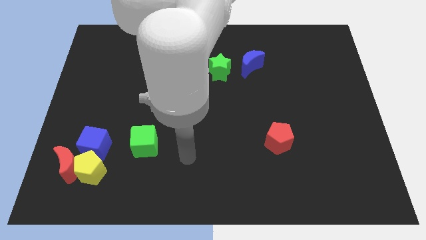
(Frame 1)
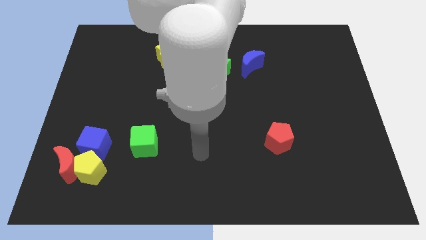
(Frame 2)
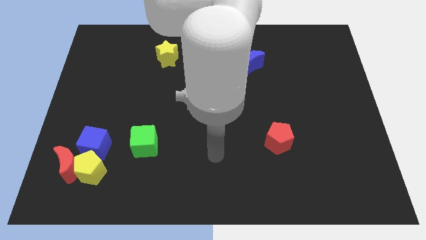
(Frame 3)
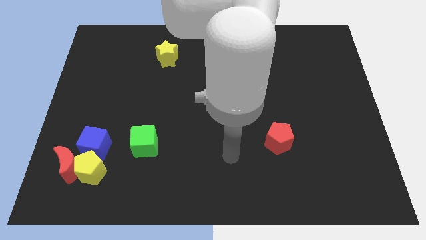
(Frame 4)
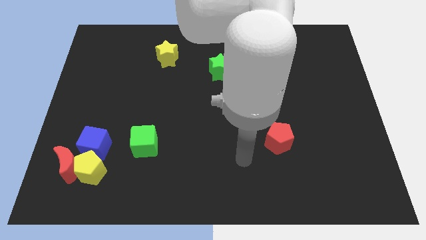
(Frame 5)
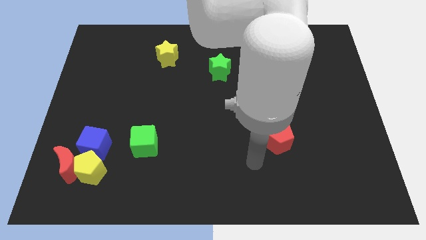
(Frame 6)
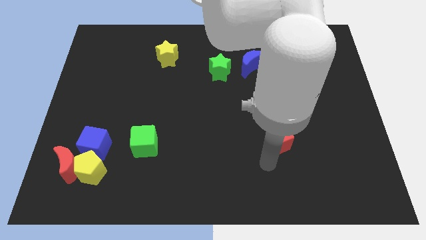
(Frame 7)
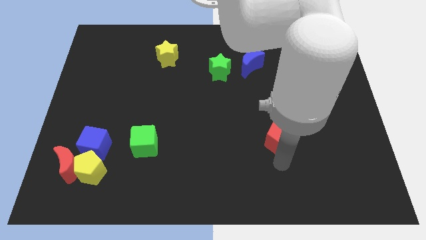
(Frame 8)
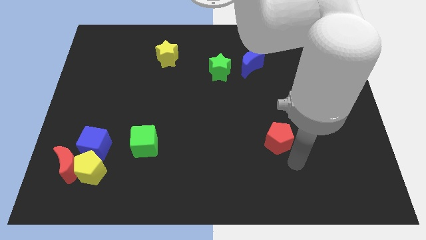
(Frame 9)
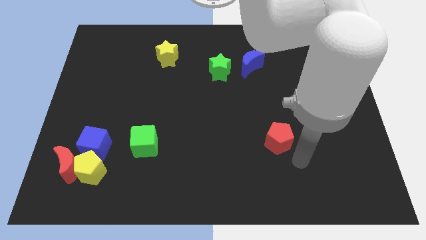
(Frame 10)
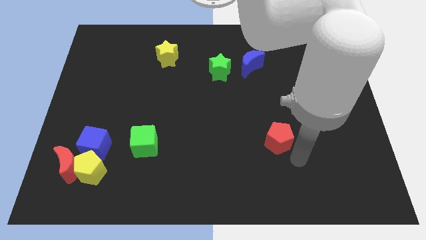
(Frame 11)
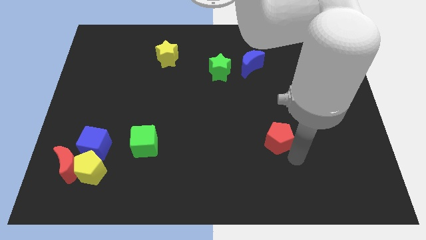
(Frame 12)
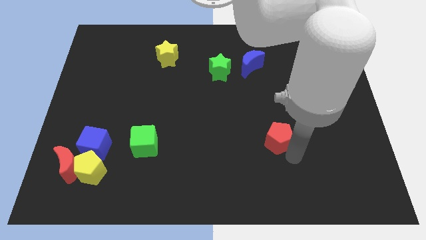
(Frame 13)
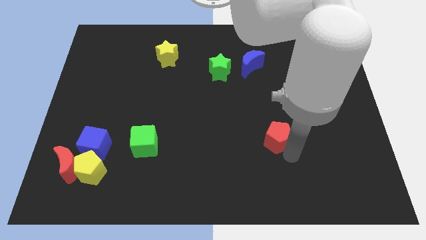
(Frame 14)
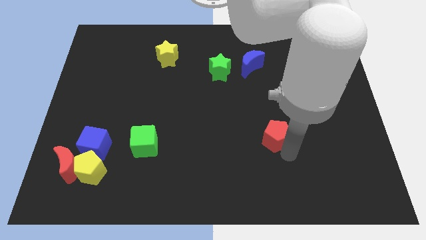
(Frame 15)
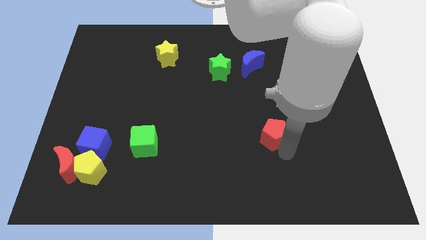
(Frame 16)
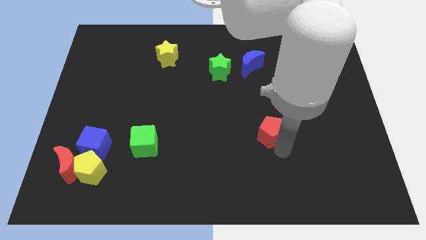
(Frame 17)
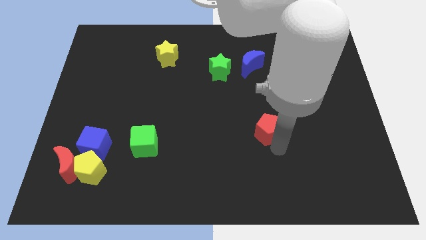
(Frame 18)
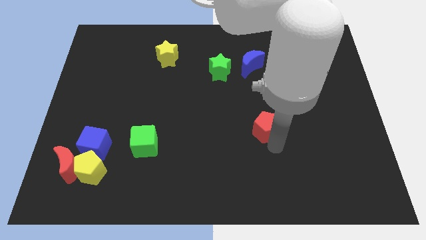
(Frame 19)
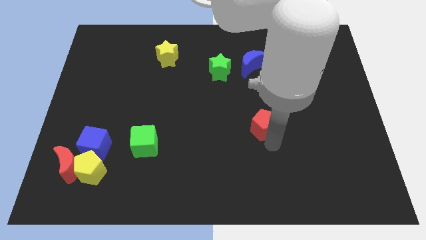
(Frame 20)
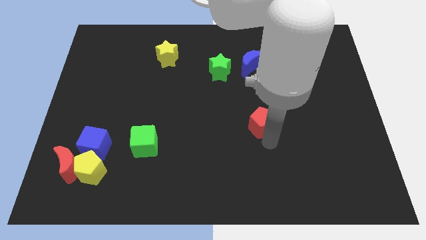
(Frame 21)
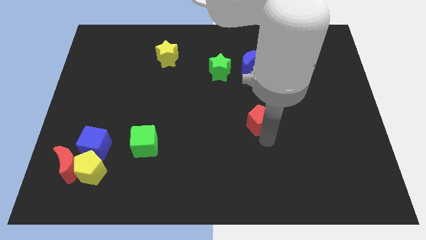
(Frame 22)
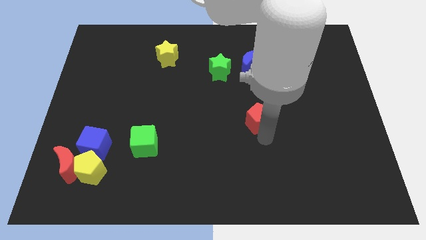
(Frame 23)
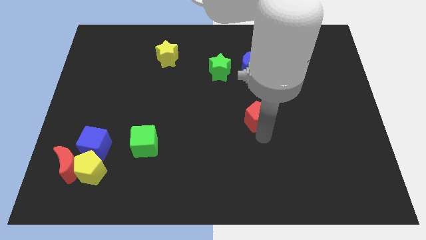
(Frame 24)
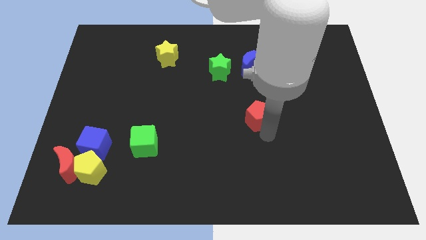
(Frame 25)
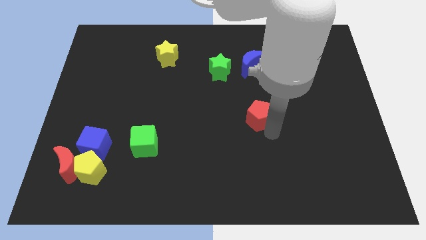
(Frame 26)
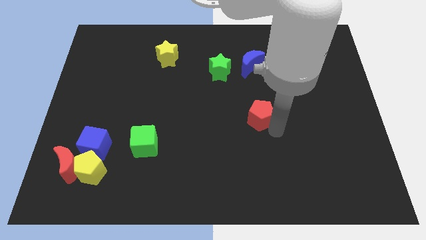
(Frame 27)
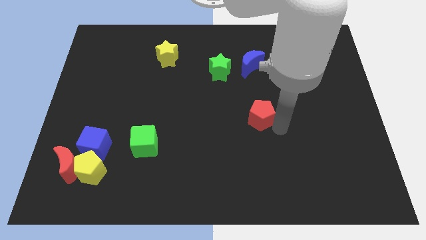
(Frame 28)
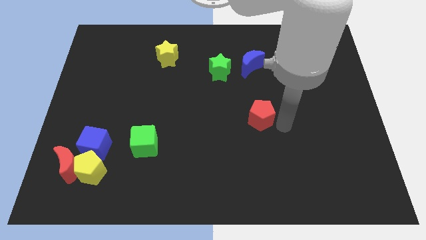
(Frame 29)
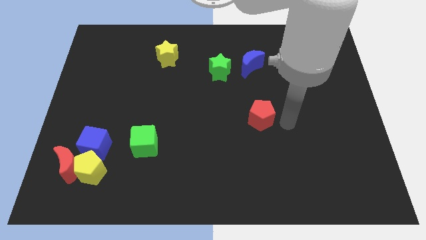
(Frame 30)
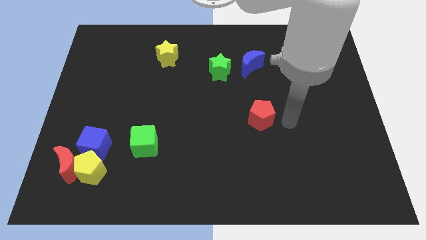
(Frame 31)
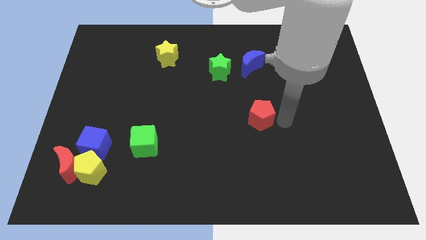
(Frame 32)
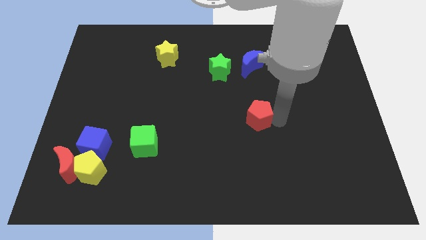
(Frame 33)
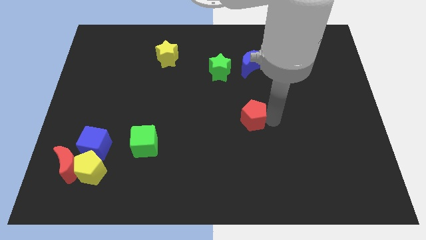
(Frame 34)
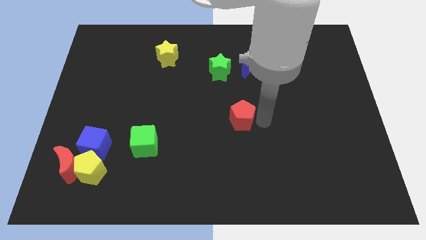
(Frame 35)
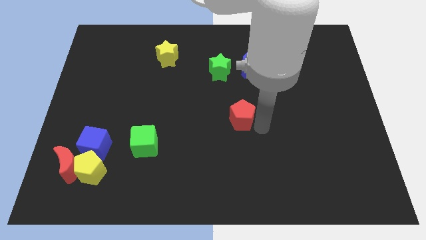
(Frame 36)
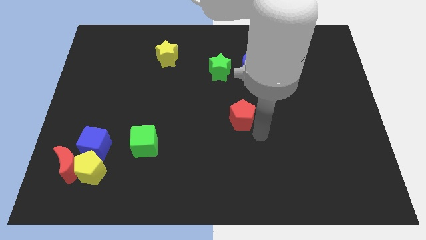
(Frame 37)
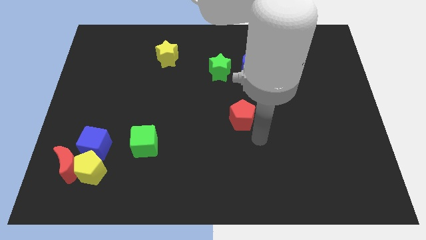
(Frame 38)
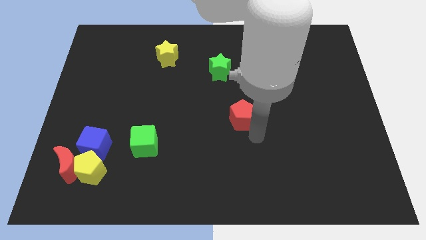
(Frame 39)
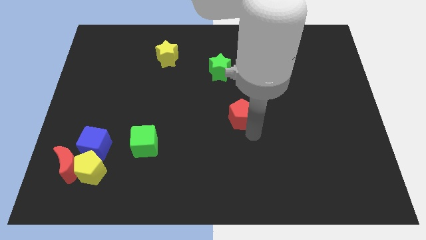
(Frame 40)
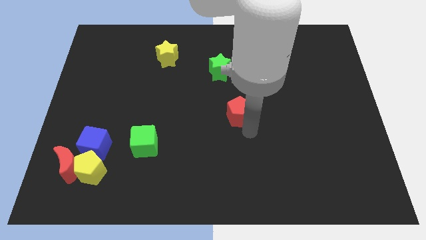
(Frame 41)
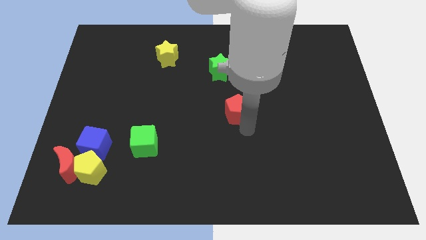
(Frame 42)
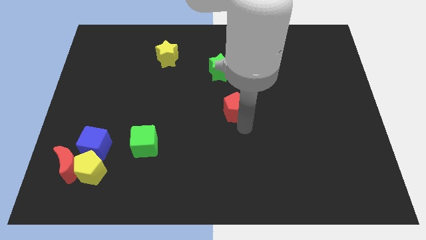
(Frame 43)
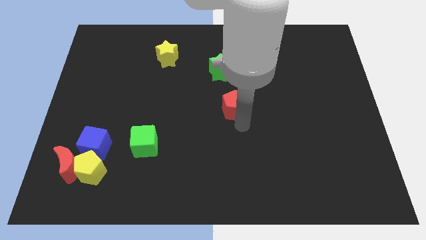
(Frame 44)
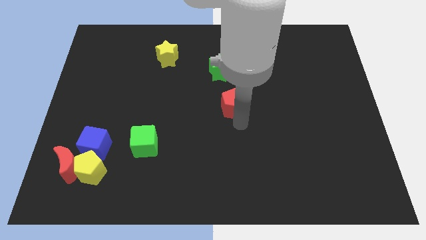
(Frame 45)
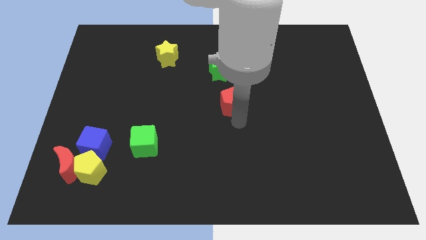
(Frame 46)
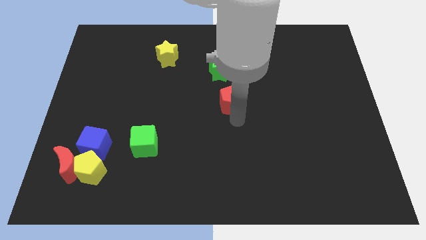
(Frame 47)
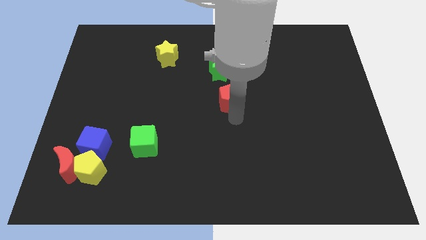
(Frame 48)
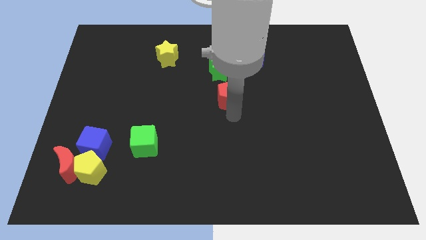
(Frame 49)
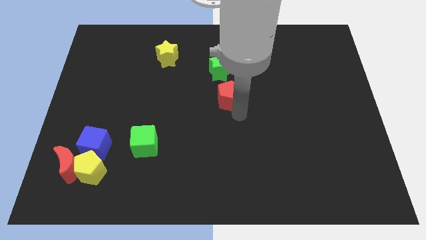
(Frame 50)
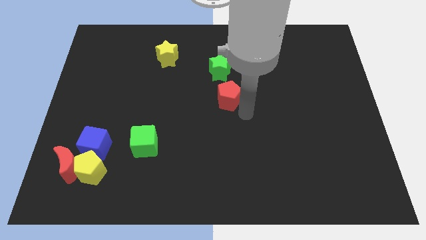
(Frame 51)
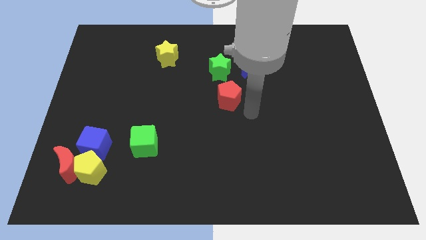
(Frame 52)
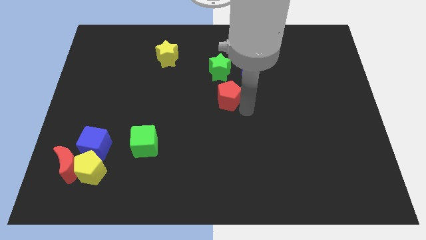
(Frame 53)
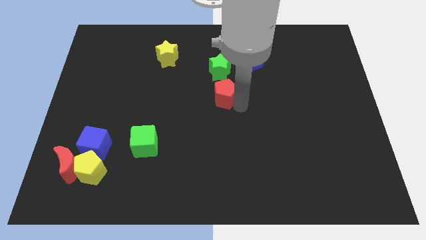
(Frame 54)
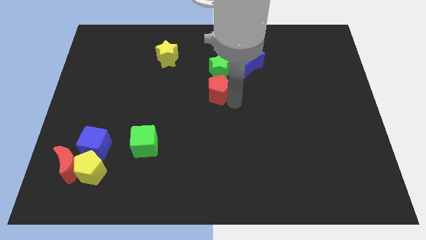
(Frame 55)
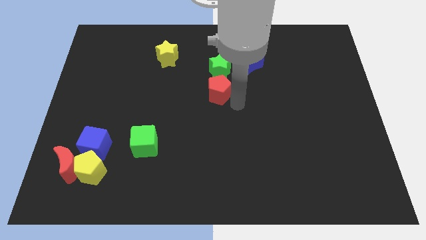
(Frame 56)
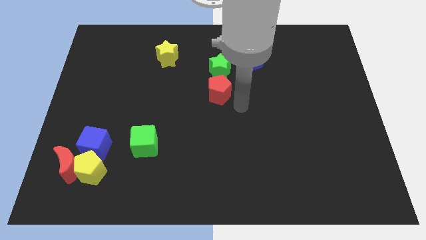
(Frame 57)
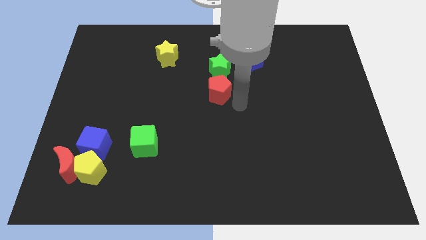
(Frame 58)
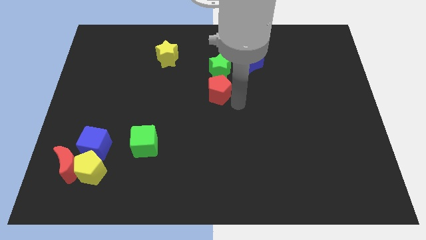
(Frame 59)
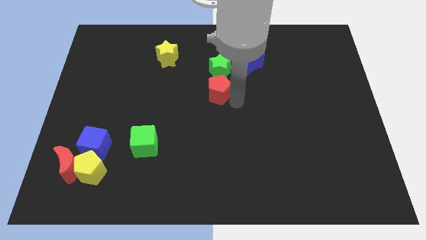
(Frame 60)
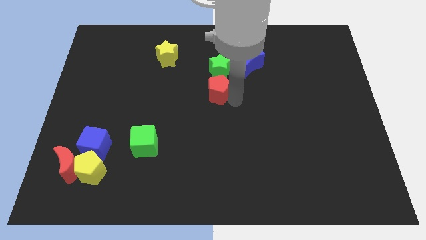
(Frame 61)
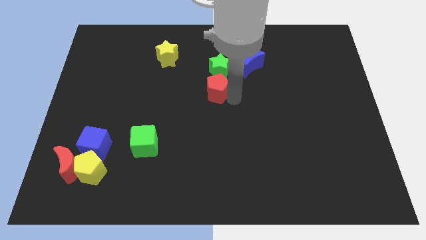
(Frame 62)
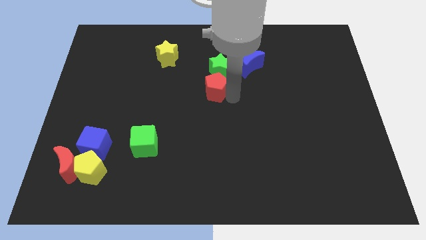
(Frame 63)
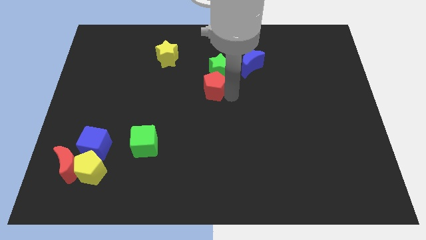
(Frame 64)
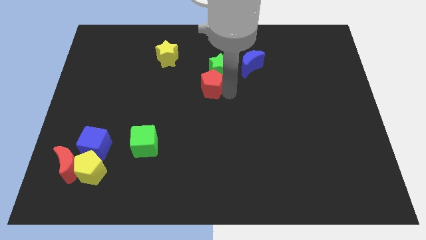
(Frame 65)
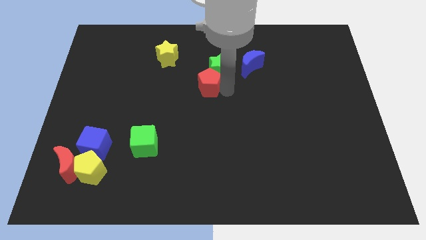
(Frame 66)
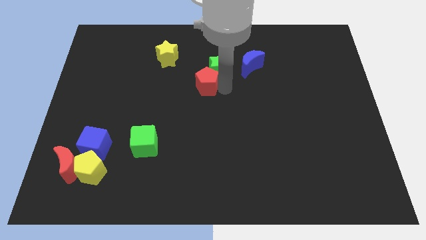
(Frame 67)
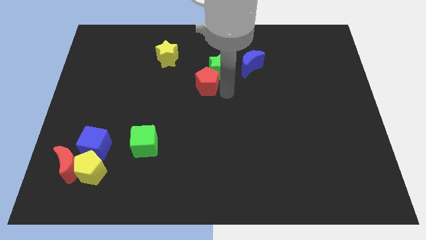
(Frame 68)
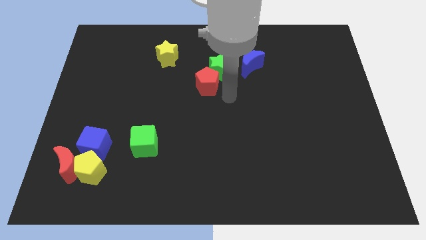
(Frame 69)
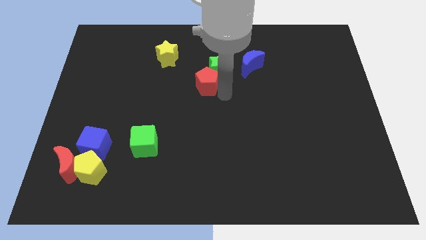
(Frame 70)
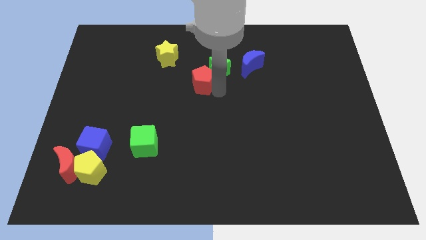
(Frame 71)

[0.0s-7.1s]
move the red pentagon to the bottom right side of the yellow star

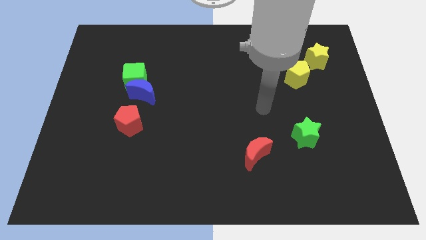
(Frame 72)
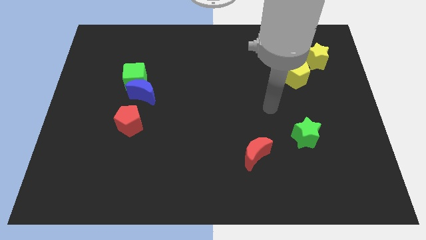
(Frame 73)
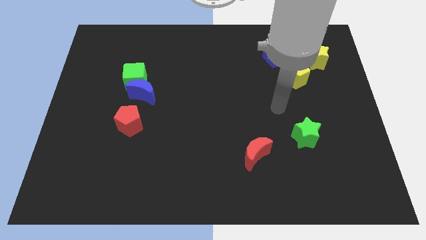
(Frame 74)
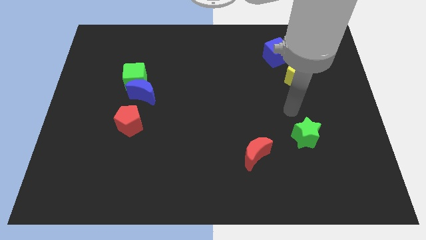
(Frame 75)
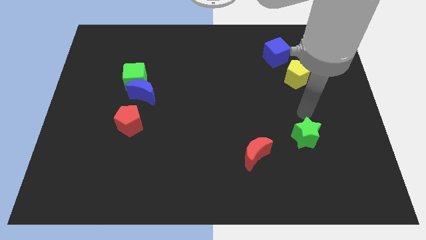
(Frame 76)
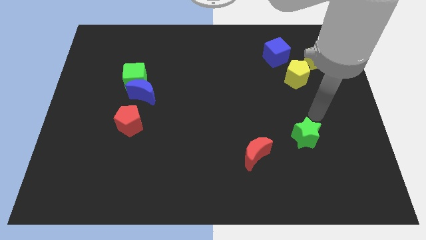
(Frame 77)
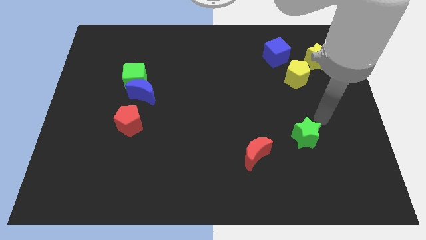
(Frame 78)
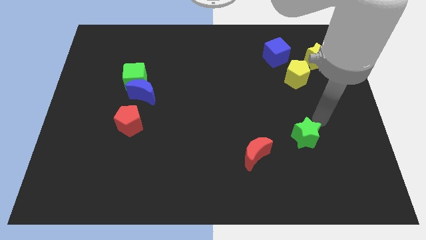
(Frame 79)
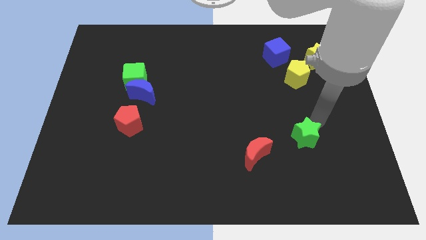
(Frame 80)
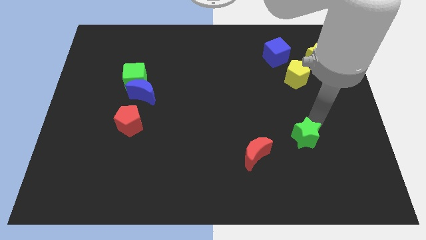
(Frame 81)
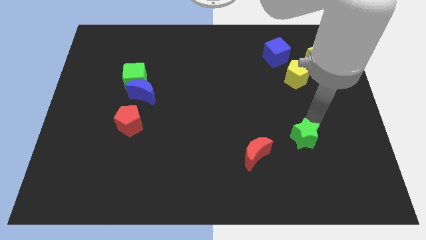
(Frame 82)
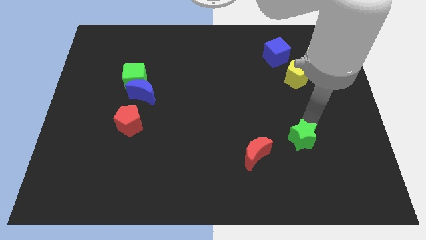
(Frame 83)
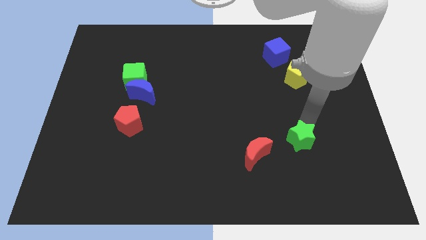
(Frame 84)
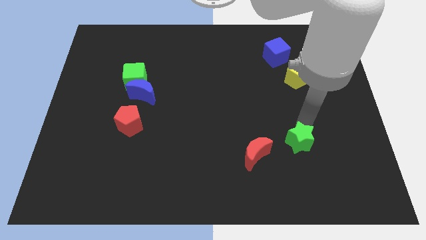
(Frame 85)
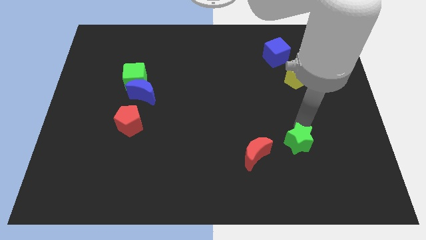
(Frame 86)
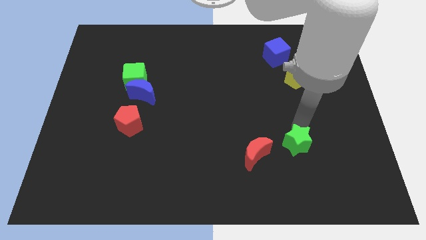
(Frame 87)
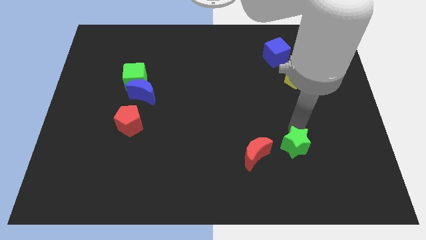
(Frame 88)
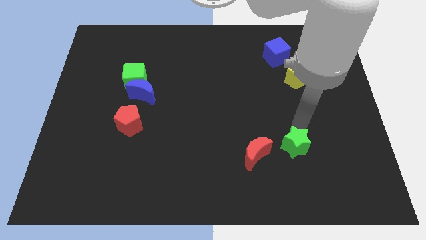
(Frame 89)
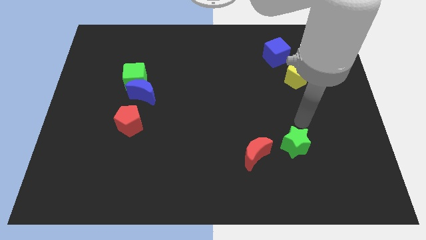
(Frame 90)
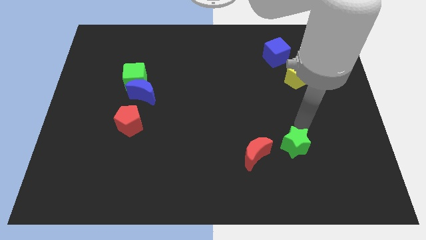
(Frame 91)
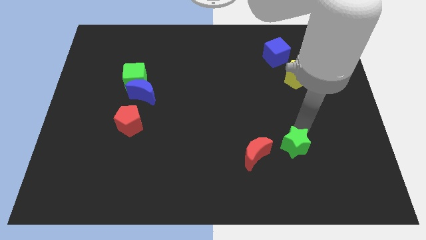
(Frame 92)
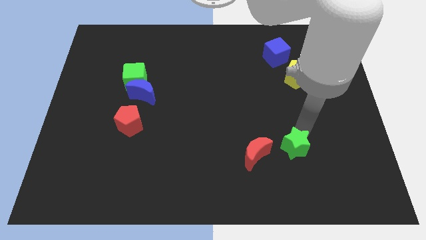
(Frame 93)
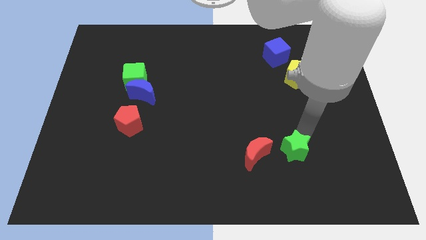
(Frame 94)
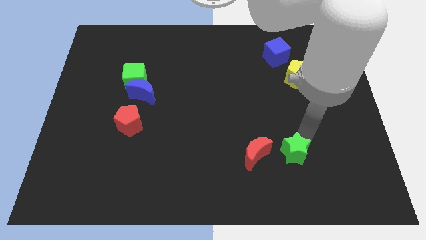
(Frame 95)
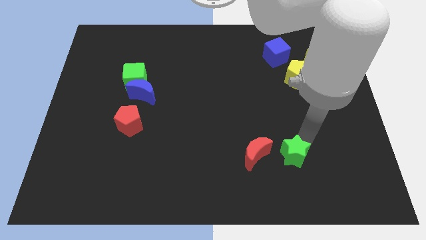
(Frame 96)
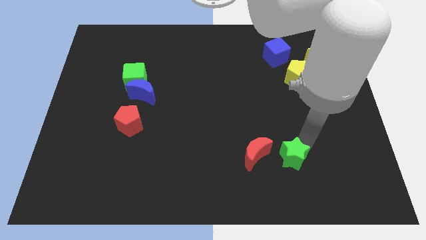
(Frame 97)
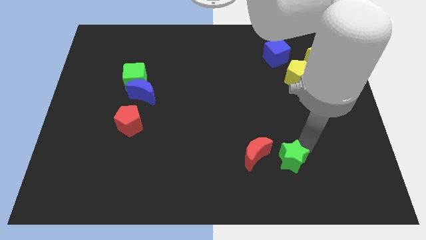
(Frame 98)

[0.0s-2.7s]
slide the green star to the bottom right of the red moon
